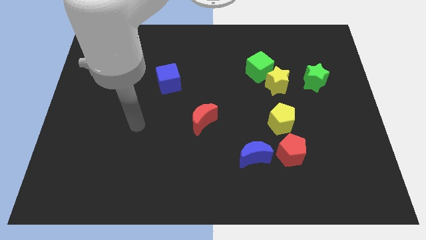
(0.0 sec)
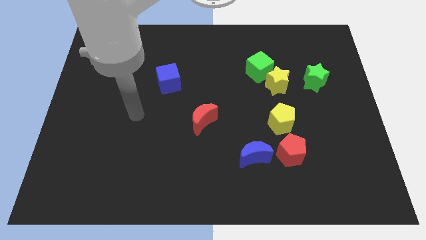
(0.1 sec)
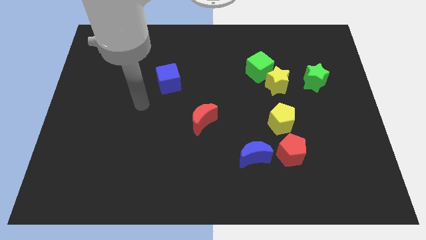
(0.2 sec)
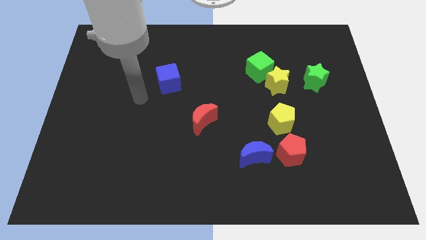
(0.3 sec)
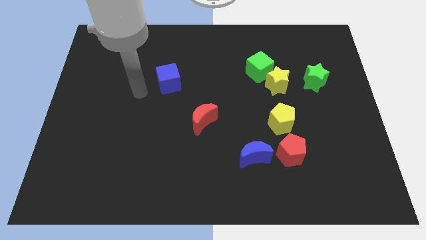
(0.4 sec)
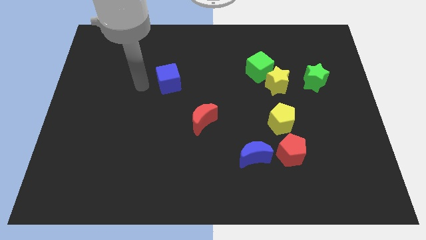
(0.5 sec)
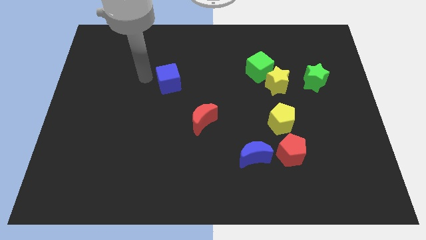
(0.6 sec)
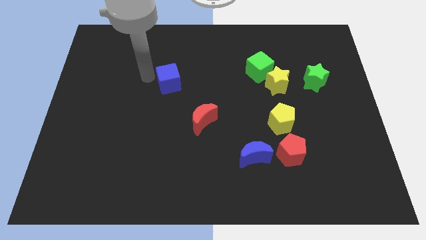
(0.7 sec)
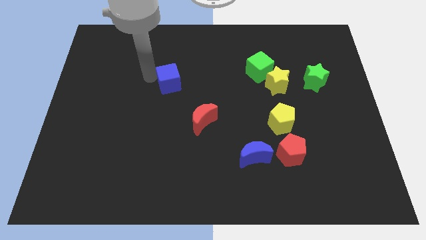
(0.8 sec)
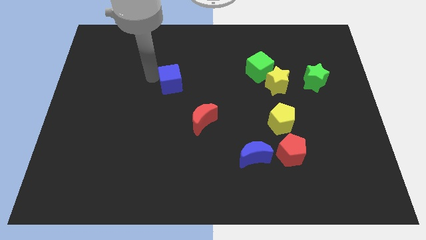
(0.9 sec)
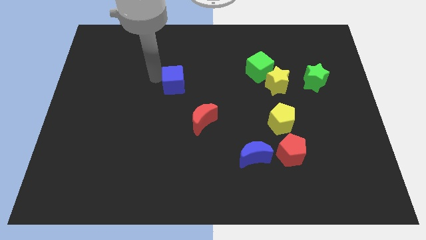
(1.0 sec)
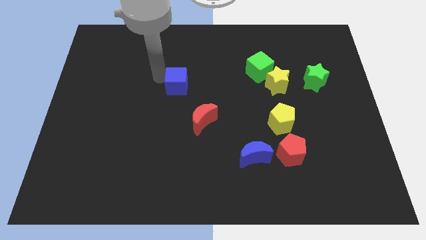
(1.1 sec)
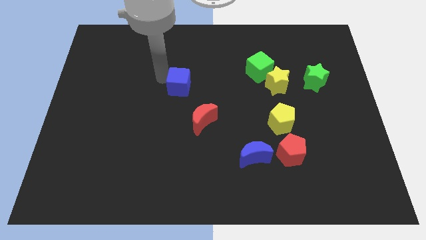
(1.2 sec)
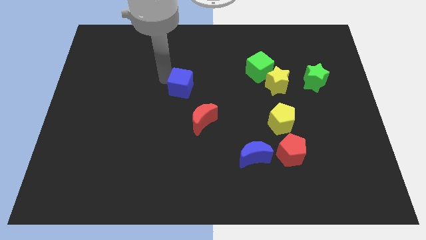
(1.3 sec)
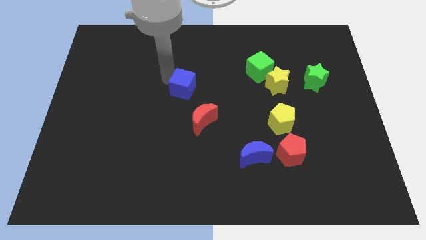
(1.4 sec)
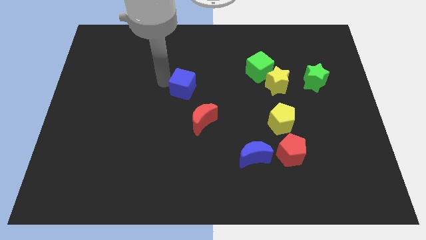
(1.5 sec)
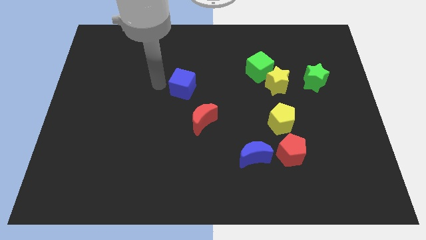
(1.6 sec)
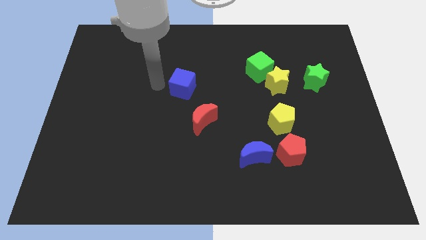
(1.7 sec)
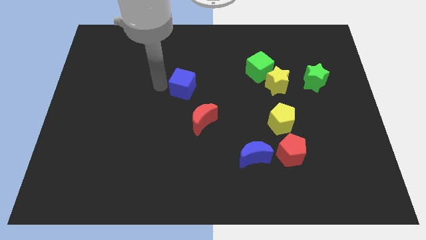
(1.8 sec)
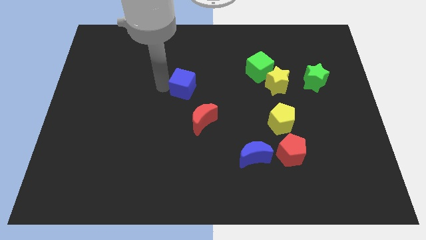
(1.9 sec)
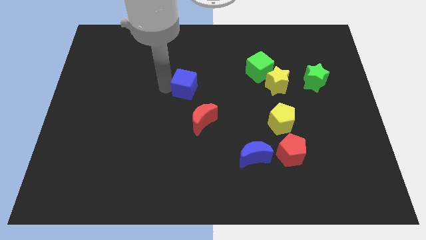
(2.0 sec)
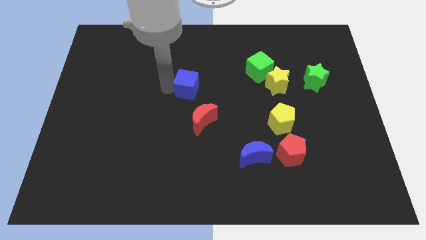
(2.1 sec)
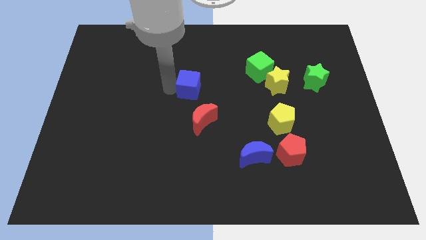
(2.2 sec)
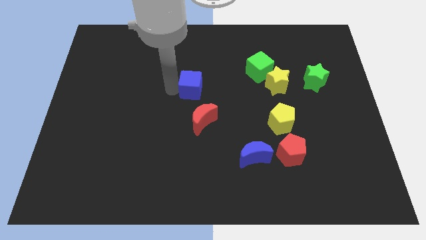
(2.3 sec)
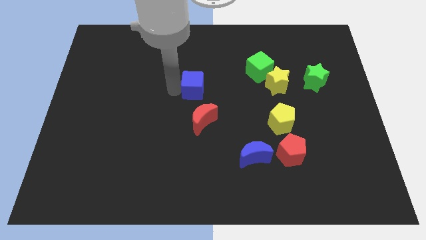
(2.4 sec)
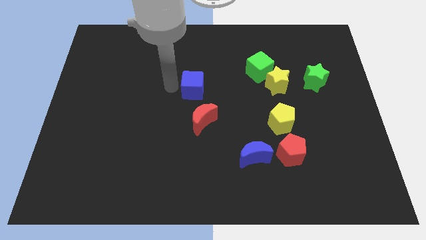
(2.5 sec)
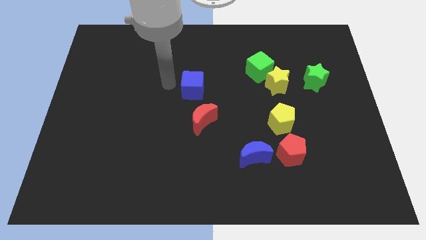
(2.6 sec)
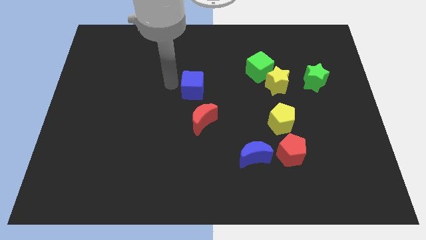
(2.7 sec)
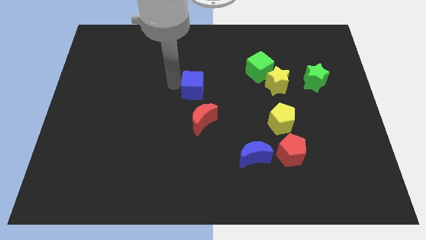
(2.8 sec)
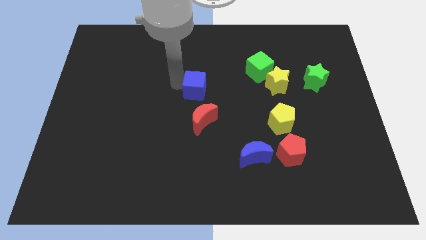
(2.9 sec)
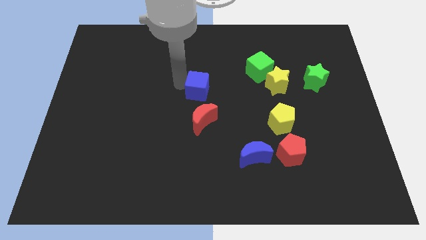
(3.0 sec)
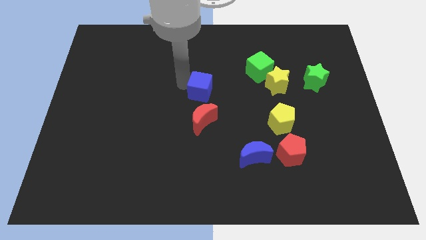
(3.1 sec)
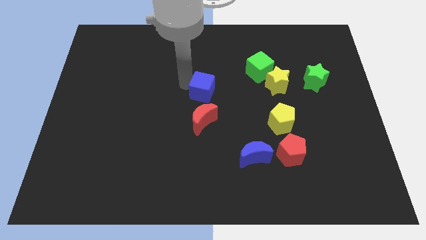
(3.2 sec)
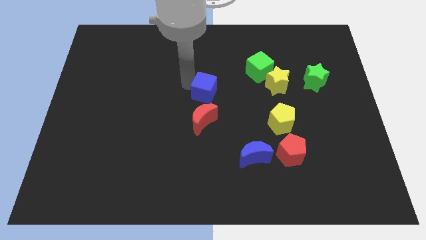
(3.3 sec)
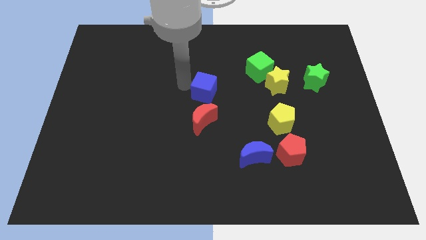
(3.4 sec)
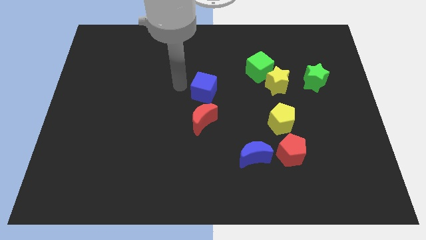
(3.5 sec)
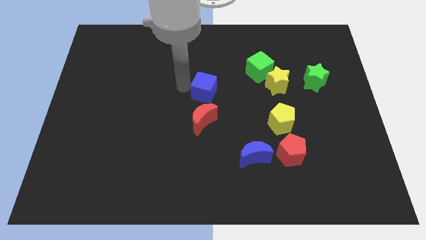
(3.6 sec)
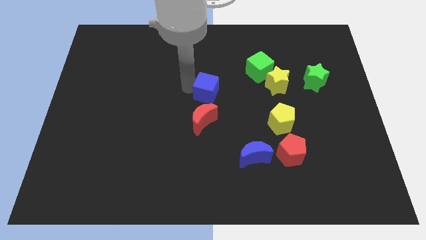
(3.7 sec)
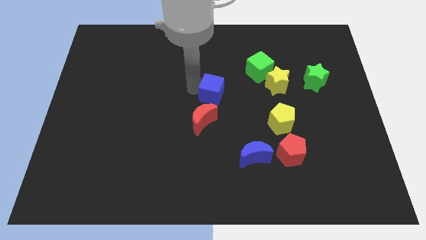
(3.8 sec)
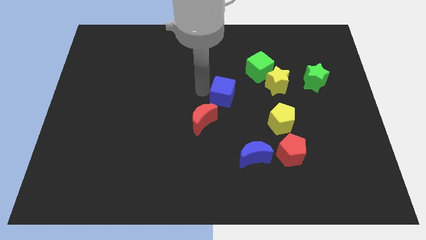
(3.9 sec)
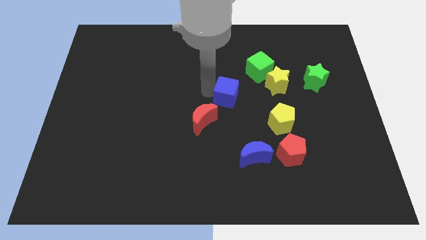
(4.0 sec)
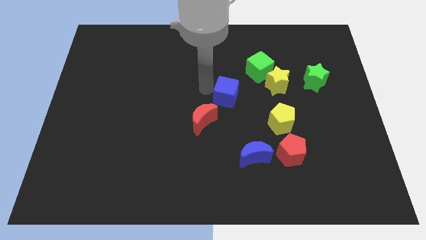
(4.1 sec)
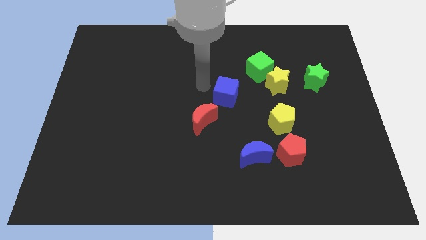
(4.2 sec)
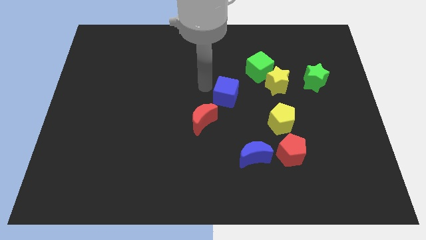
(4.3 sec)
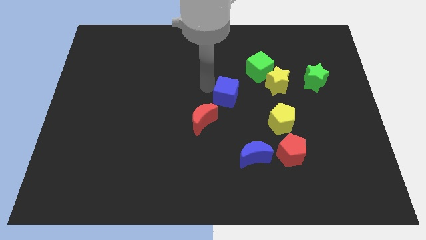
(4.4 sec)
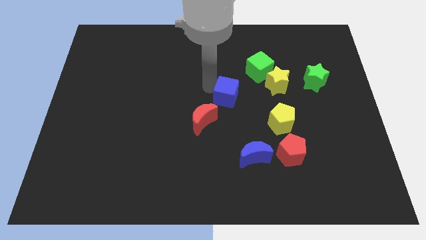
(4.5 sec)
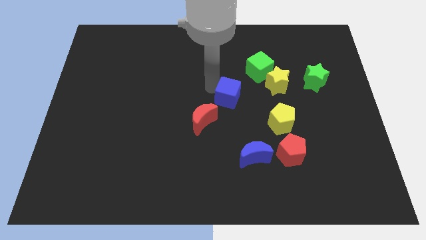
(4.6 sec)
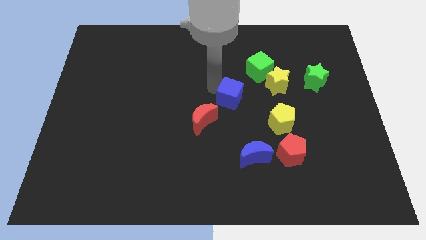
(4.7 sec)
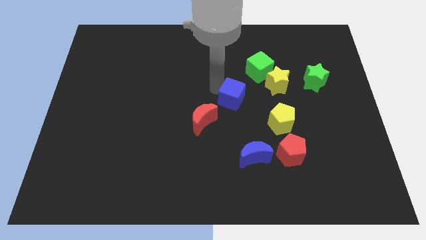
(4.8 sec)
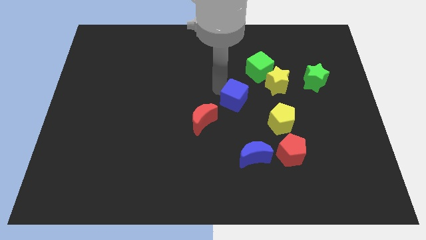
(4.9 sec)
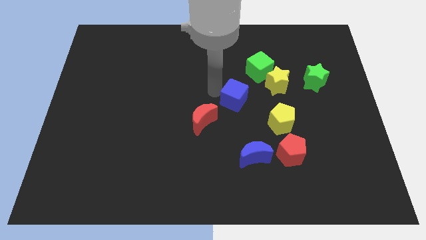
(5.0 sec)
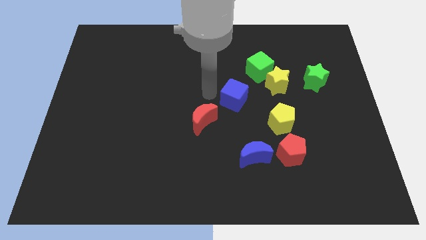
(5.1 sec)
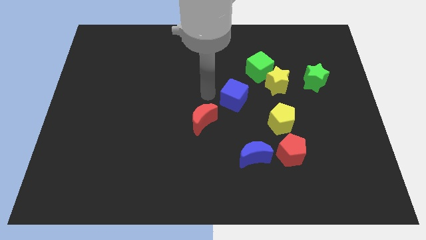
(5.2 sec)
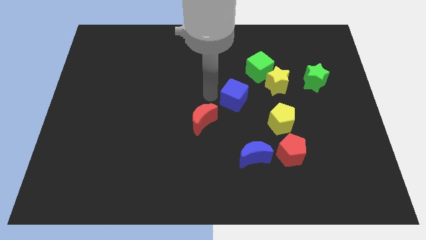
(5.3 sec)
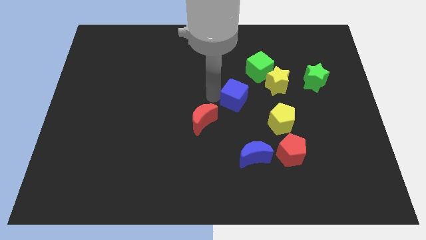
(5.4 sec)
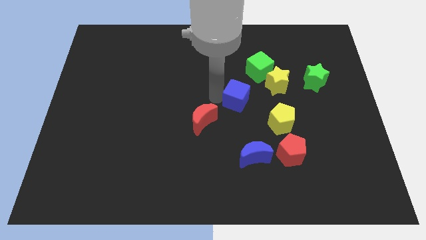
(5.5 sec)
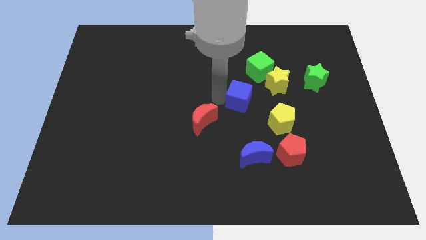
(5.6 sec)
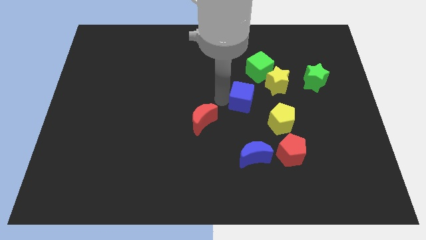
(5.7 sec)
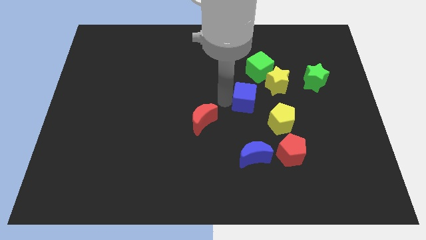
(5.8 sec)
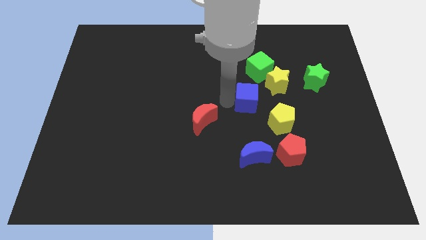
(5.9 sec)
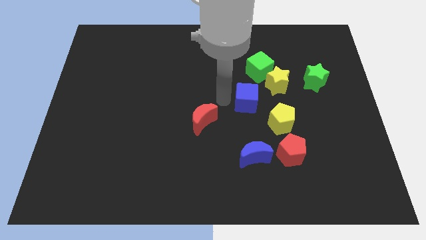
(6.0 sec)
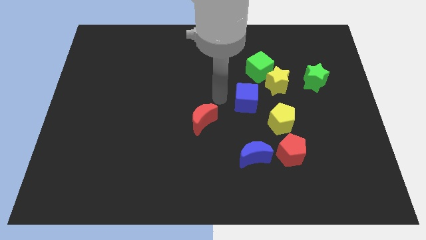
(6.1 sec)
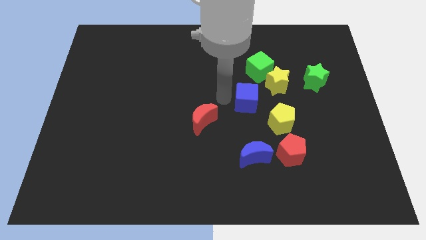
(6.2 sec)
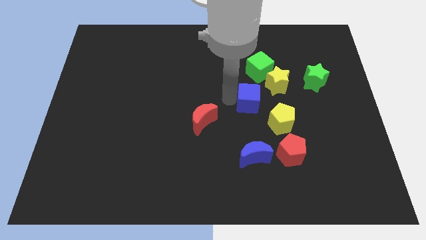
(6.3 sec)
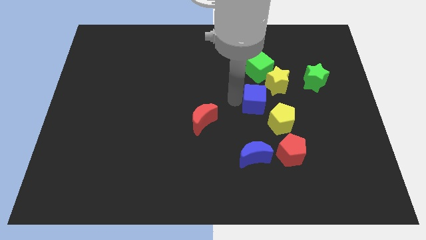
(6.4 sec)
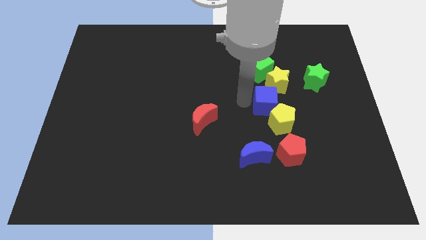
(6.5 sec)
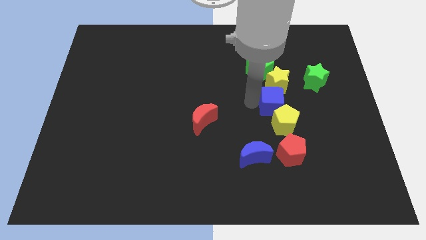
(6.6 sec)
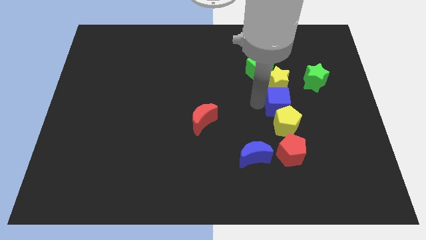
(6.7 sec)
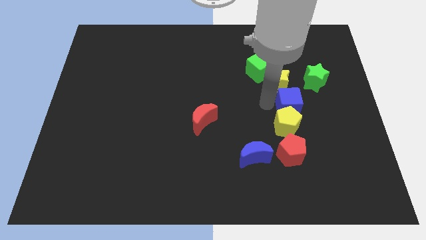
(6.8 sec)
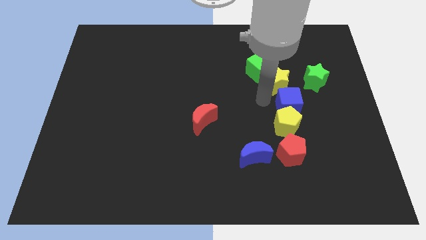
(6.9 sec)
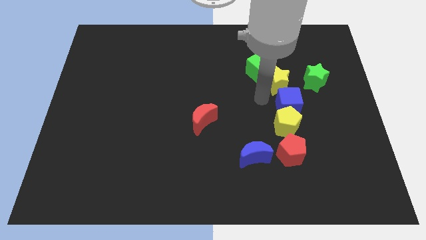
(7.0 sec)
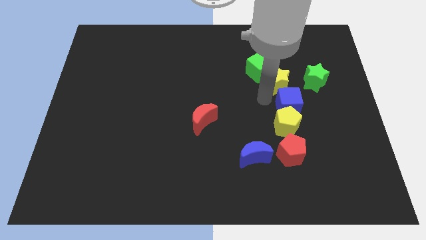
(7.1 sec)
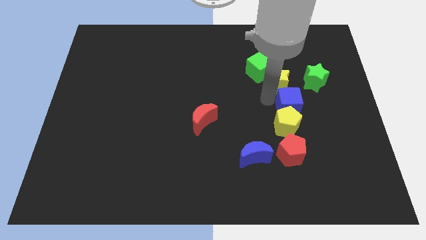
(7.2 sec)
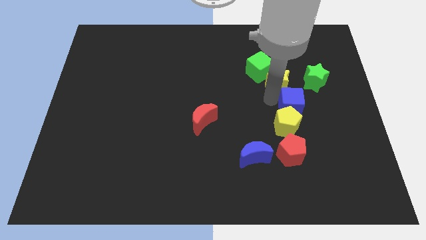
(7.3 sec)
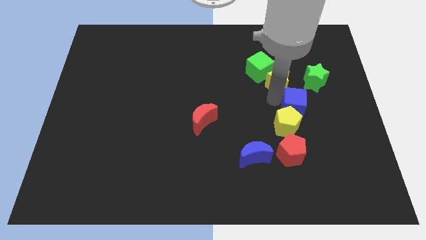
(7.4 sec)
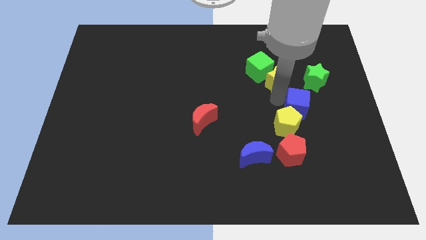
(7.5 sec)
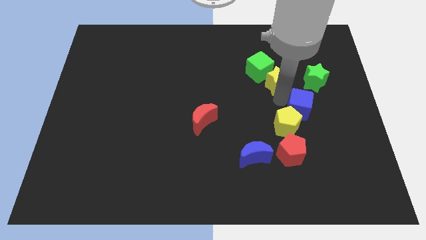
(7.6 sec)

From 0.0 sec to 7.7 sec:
put the blue cube to the bottom side of the green star
